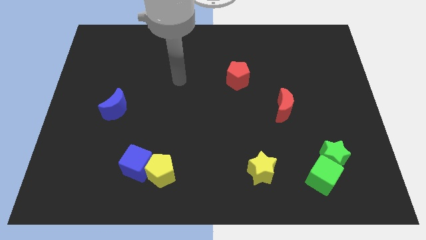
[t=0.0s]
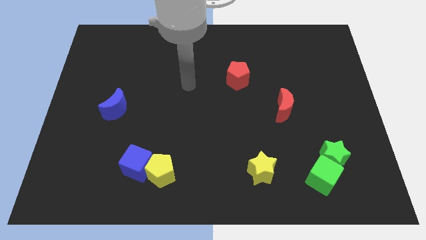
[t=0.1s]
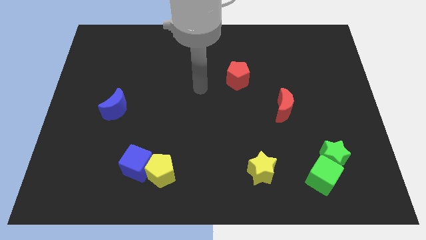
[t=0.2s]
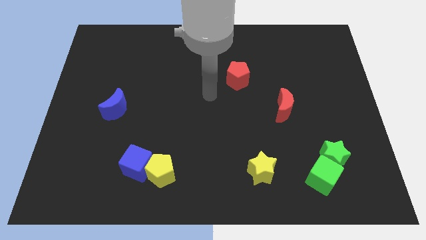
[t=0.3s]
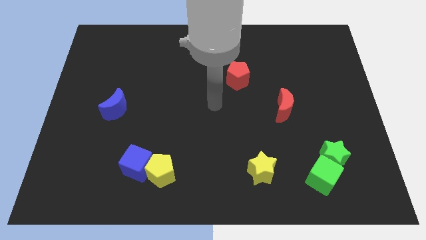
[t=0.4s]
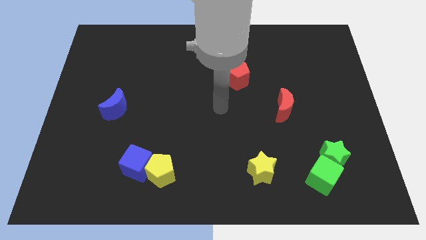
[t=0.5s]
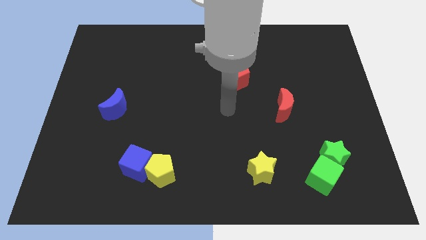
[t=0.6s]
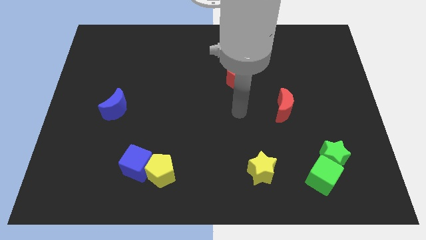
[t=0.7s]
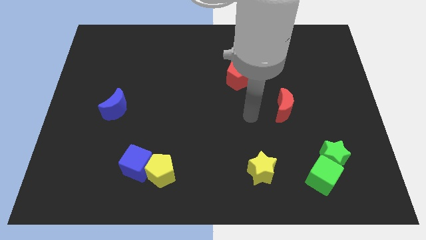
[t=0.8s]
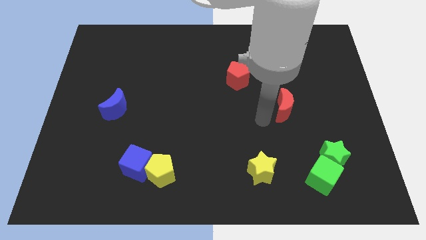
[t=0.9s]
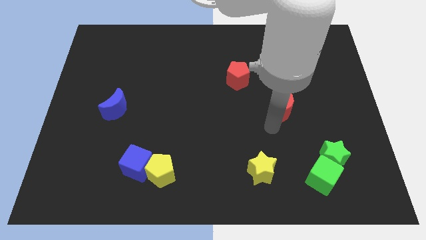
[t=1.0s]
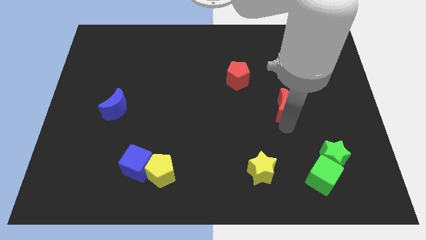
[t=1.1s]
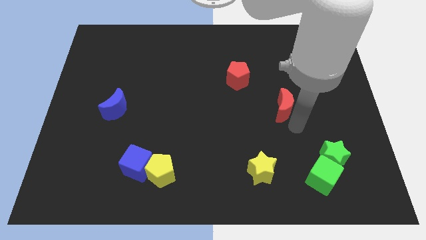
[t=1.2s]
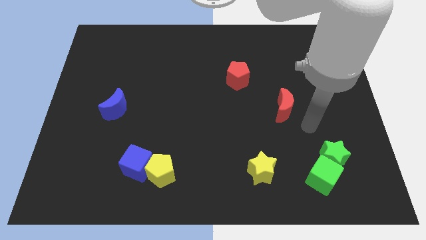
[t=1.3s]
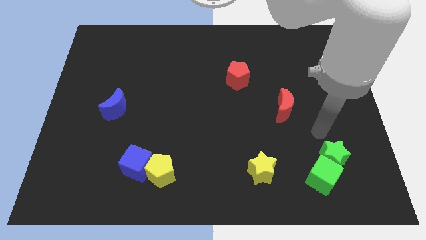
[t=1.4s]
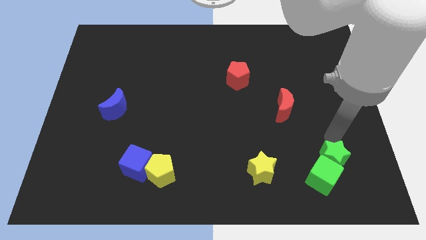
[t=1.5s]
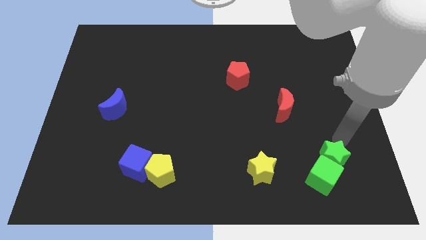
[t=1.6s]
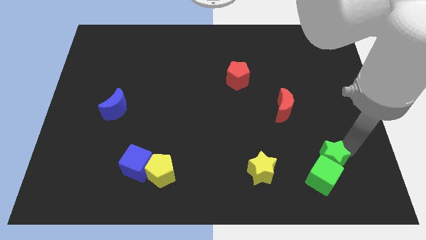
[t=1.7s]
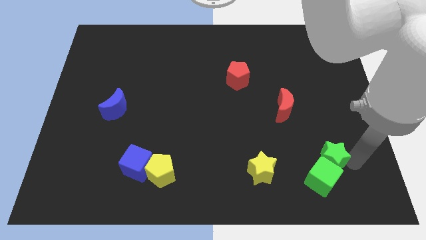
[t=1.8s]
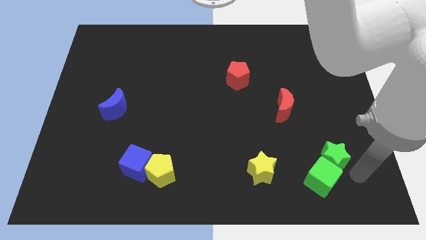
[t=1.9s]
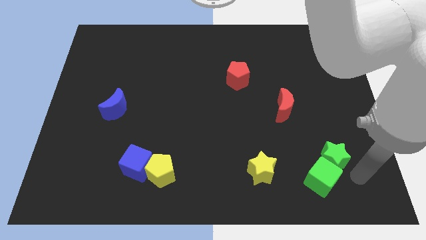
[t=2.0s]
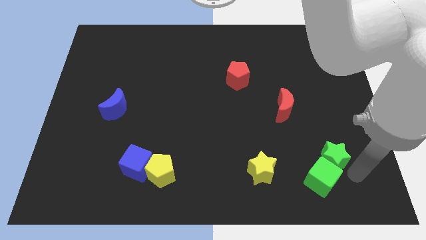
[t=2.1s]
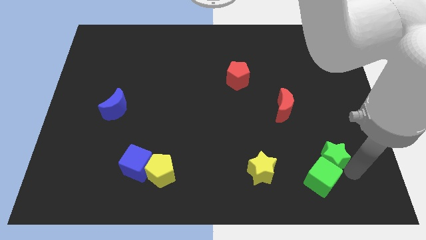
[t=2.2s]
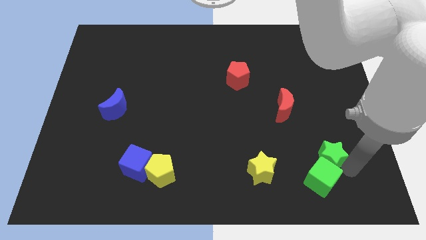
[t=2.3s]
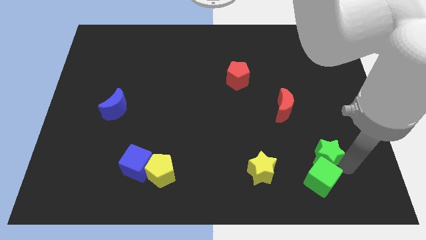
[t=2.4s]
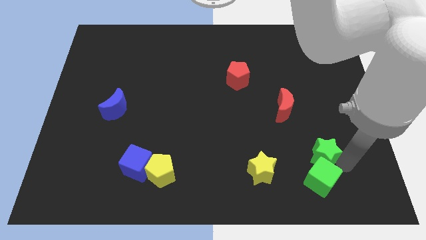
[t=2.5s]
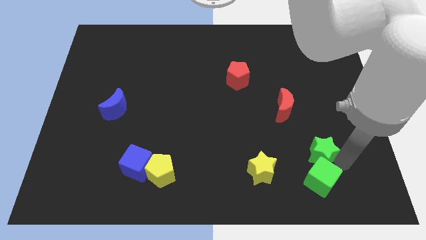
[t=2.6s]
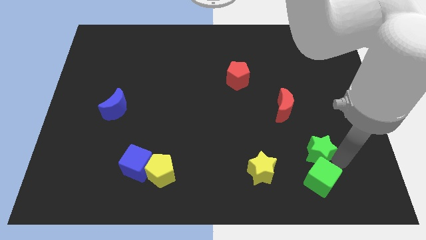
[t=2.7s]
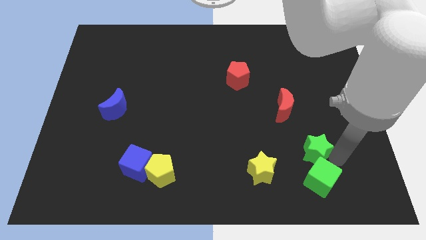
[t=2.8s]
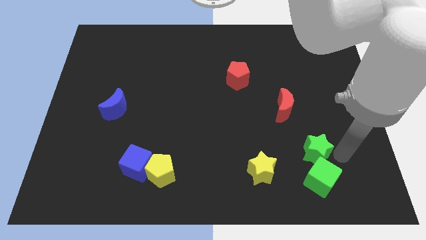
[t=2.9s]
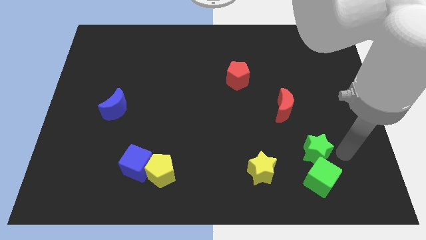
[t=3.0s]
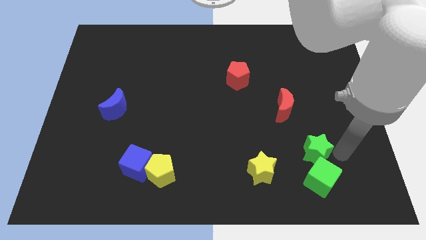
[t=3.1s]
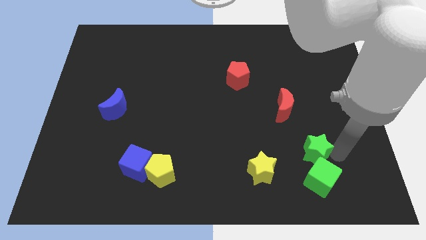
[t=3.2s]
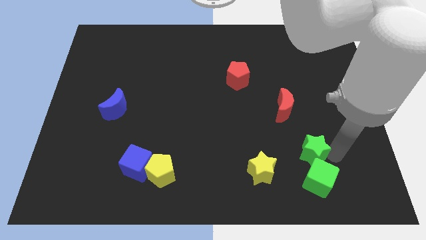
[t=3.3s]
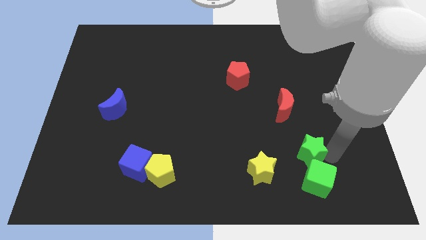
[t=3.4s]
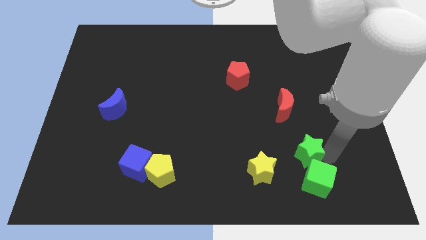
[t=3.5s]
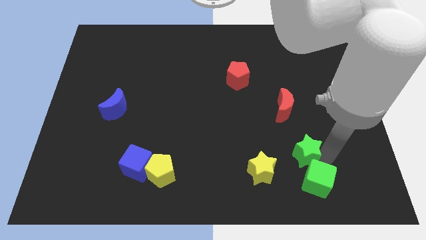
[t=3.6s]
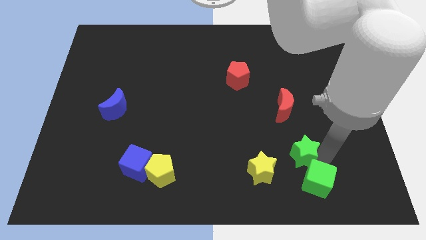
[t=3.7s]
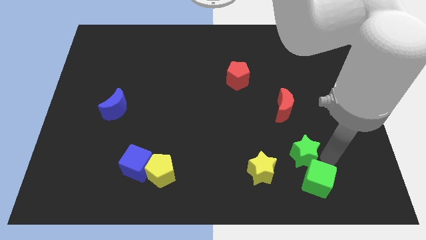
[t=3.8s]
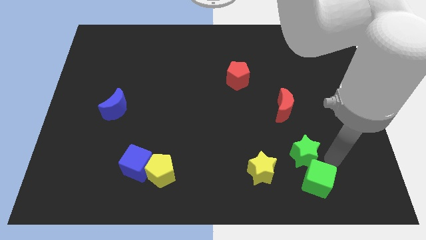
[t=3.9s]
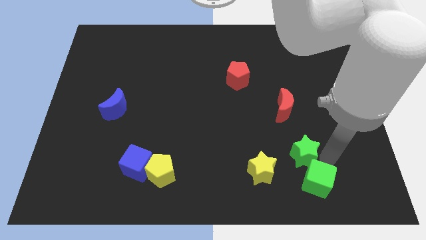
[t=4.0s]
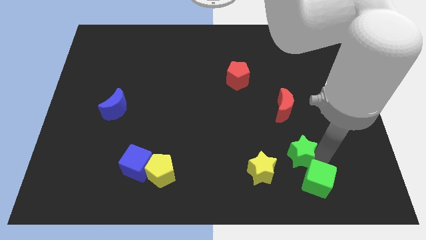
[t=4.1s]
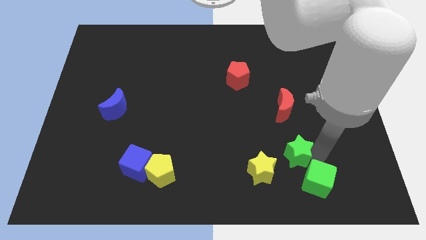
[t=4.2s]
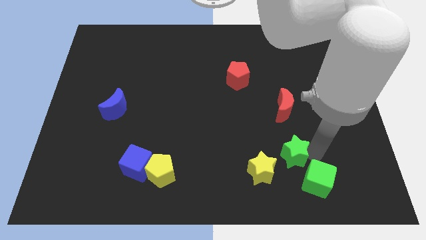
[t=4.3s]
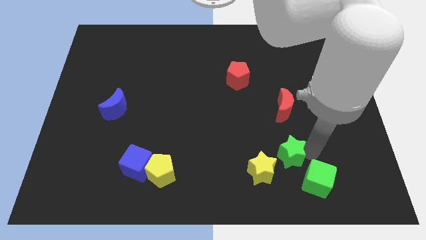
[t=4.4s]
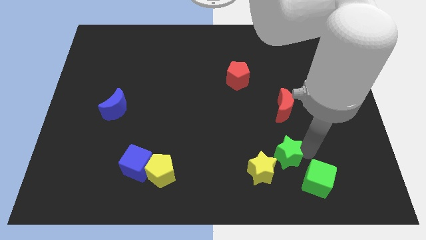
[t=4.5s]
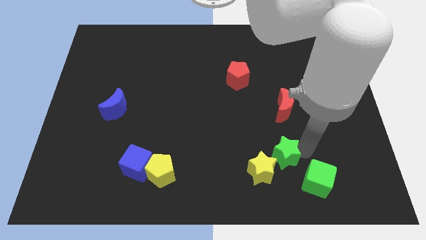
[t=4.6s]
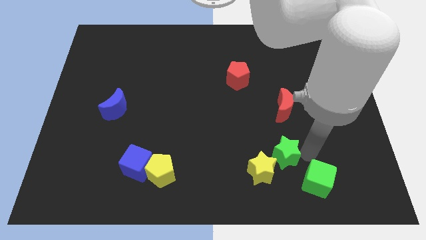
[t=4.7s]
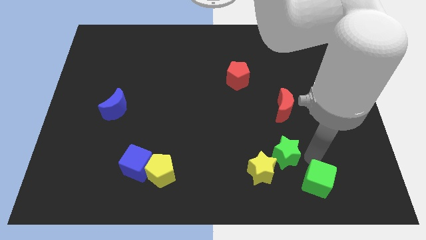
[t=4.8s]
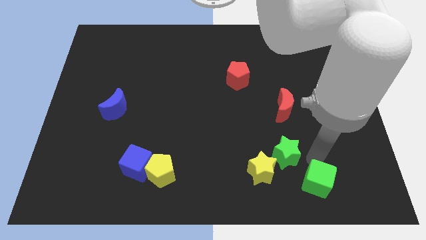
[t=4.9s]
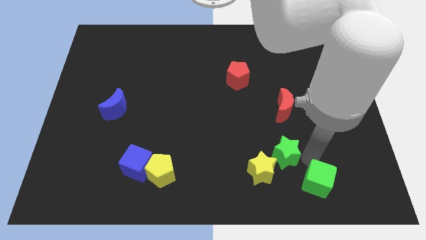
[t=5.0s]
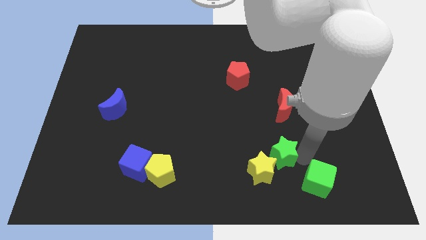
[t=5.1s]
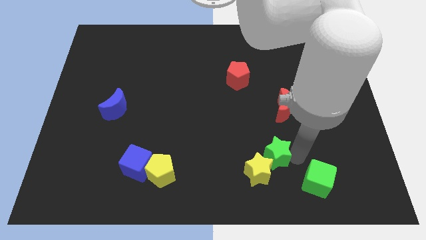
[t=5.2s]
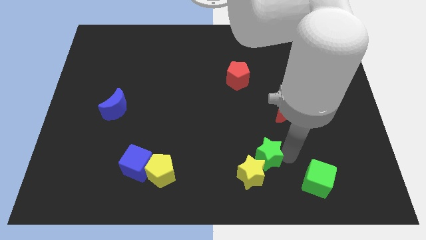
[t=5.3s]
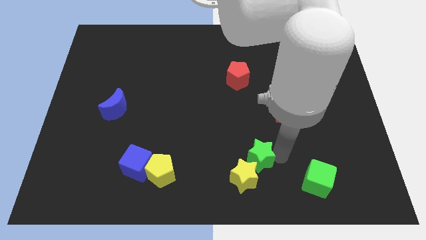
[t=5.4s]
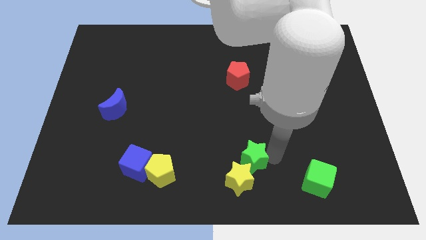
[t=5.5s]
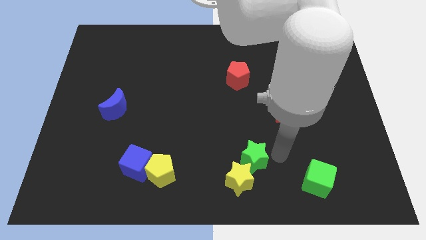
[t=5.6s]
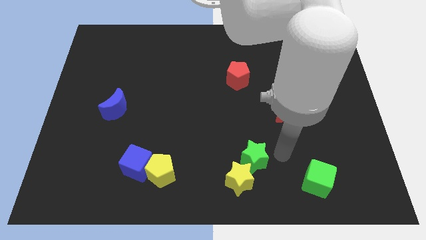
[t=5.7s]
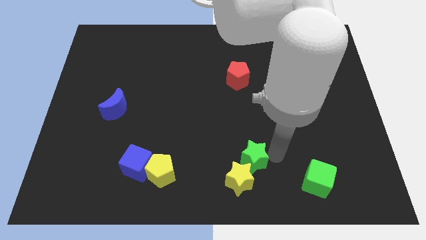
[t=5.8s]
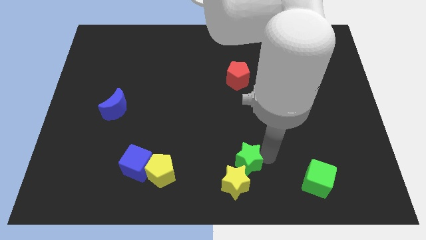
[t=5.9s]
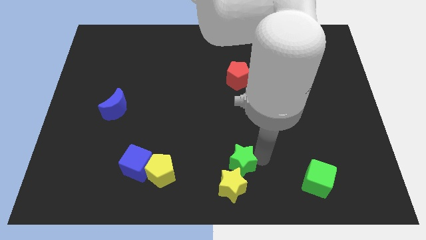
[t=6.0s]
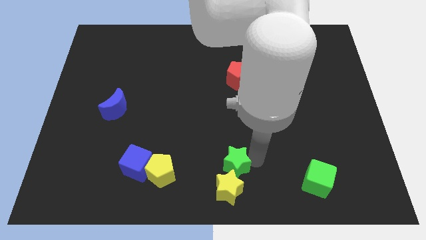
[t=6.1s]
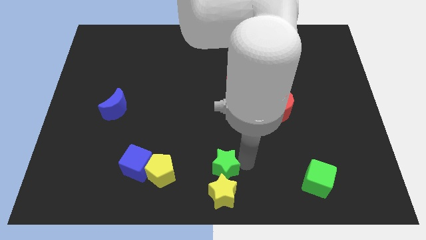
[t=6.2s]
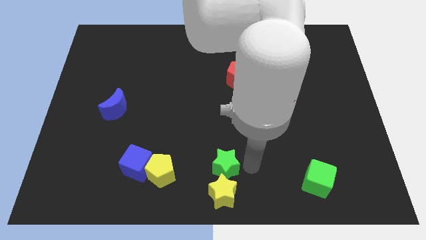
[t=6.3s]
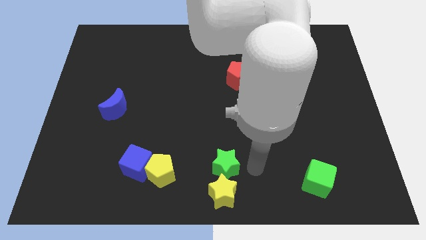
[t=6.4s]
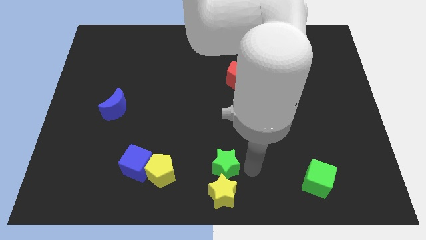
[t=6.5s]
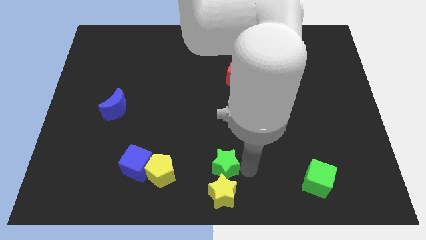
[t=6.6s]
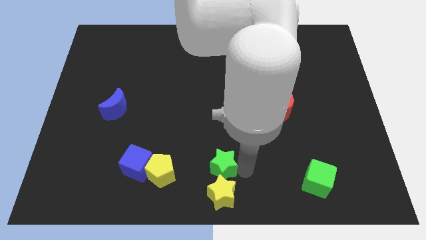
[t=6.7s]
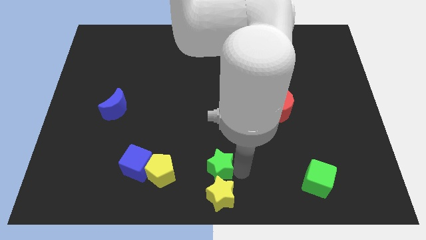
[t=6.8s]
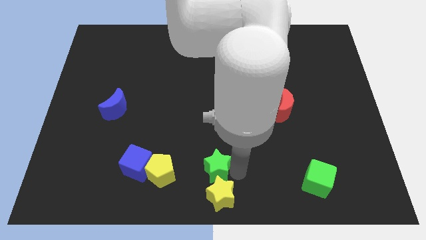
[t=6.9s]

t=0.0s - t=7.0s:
push the green star to the right of the blue cube
